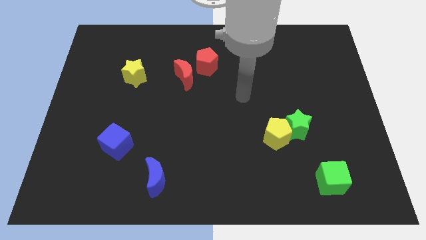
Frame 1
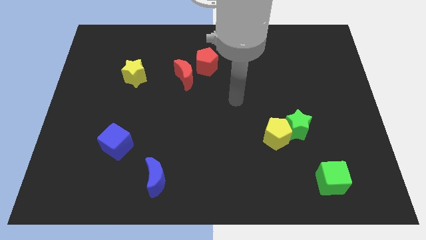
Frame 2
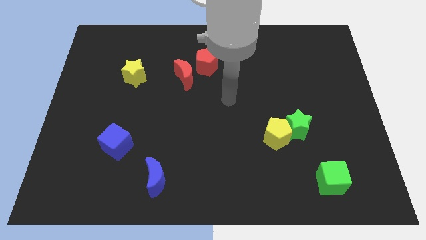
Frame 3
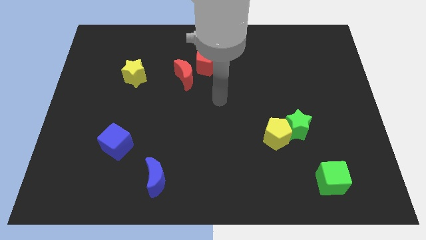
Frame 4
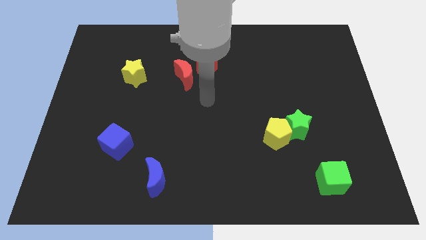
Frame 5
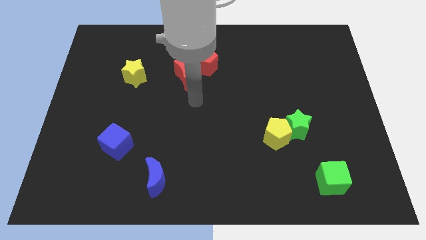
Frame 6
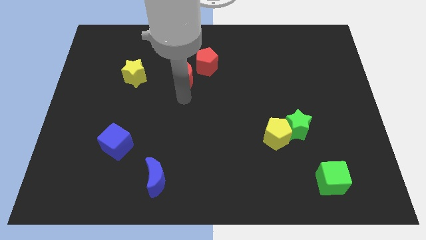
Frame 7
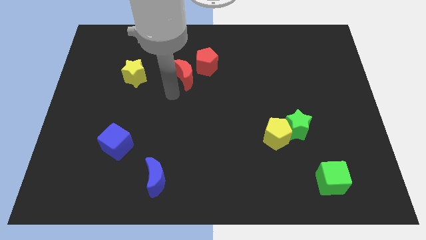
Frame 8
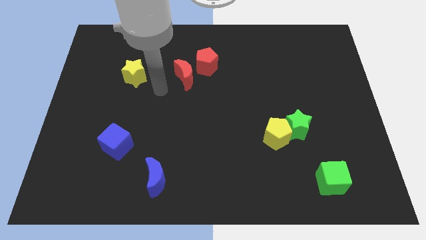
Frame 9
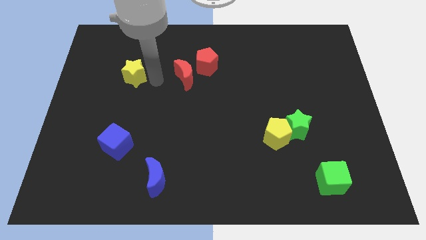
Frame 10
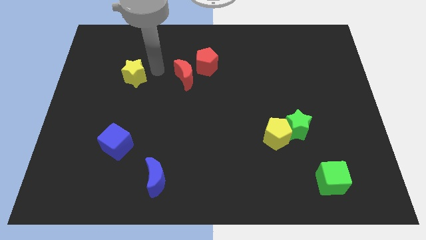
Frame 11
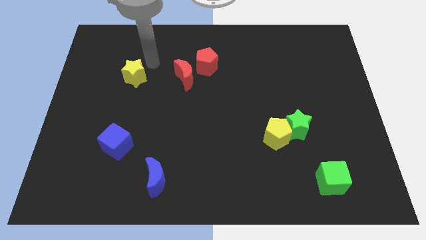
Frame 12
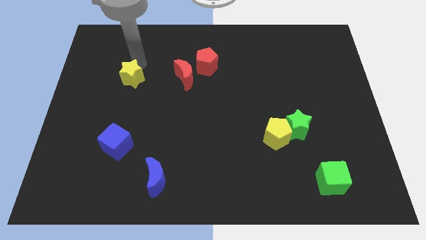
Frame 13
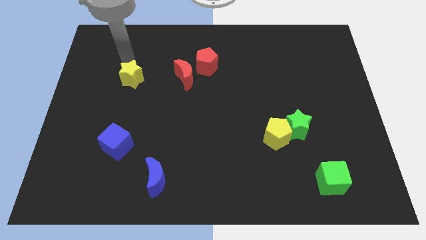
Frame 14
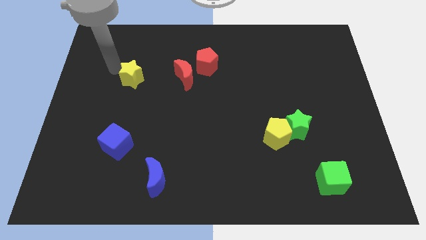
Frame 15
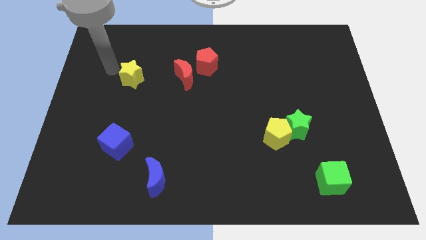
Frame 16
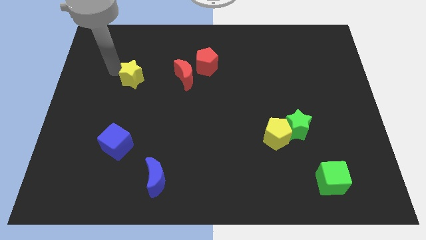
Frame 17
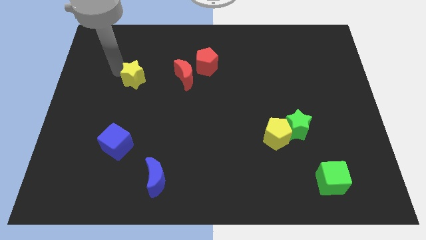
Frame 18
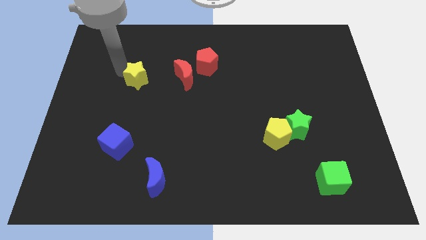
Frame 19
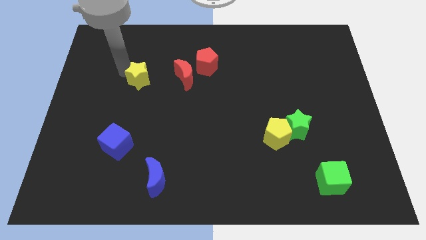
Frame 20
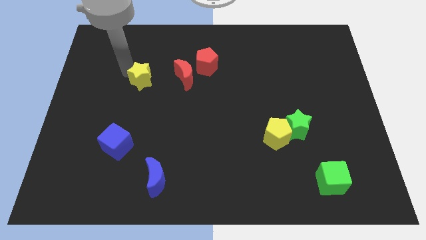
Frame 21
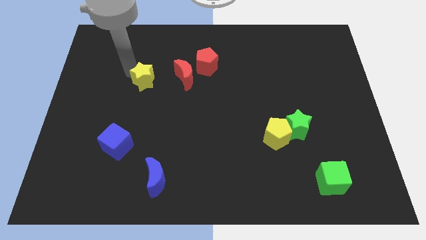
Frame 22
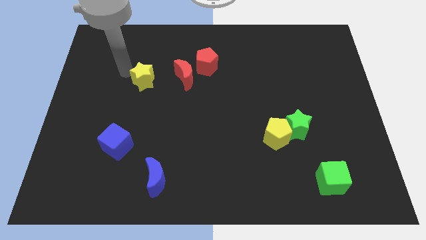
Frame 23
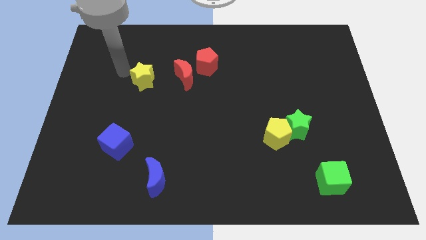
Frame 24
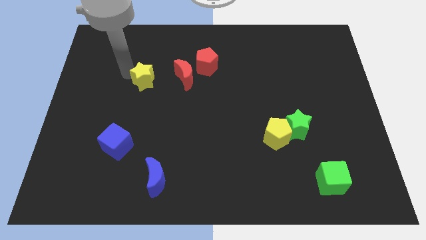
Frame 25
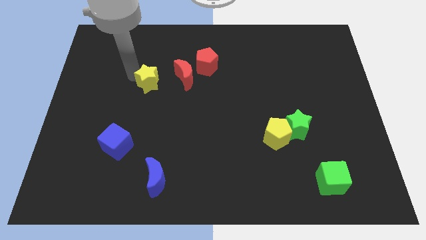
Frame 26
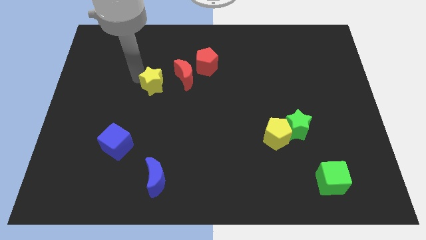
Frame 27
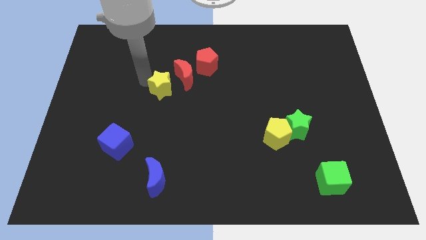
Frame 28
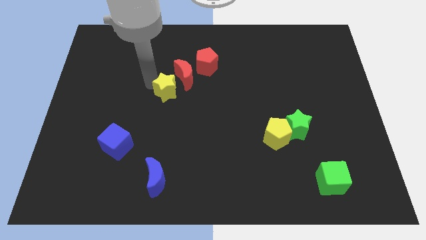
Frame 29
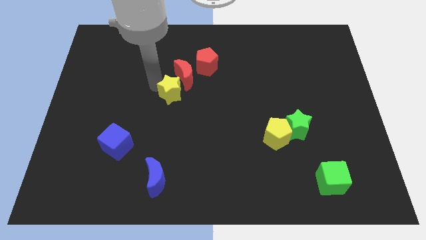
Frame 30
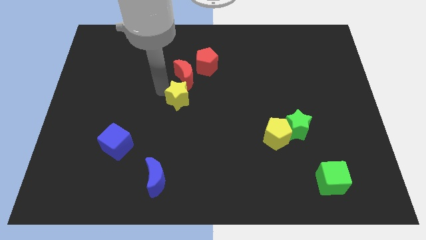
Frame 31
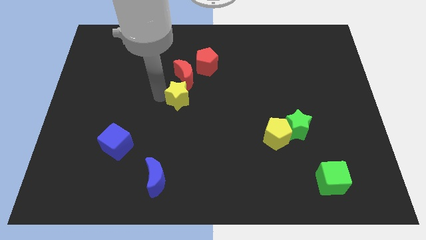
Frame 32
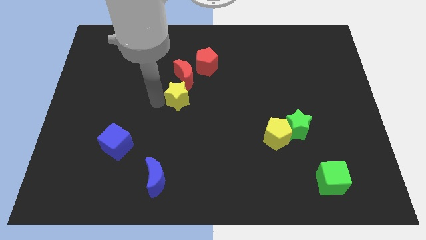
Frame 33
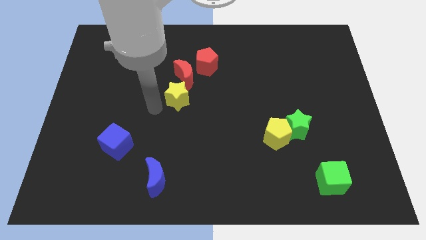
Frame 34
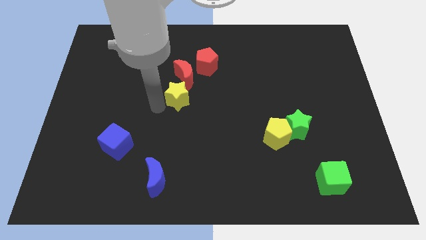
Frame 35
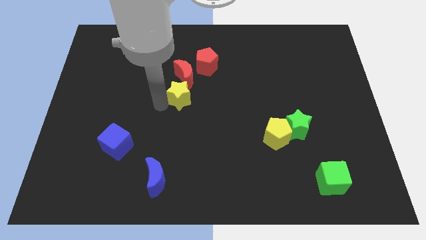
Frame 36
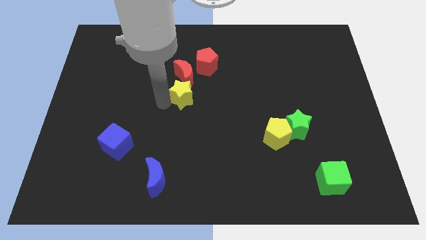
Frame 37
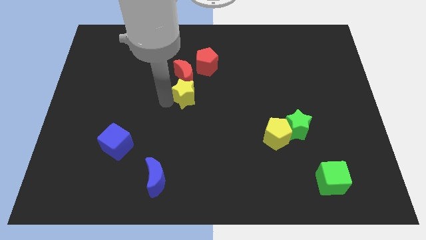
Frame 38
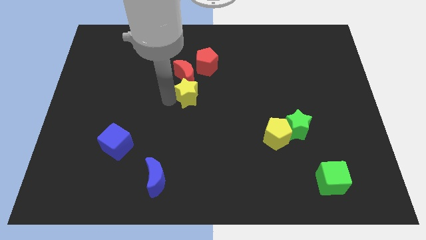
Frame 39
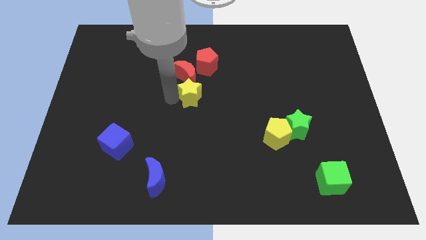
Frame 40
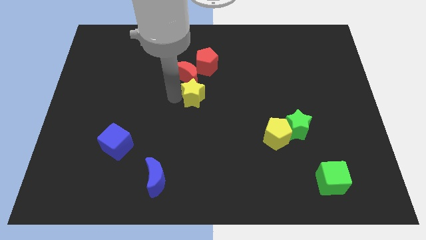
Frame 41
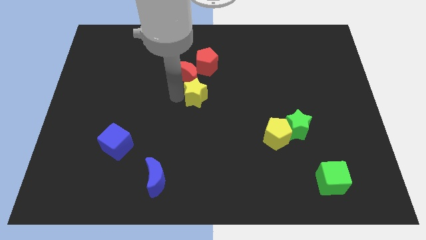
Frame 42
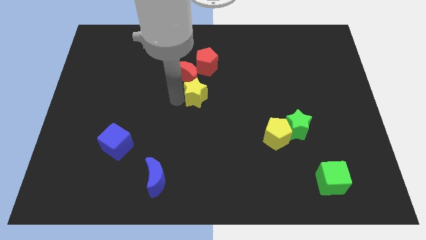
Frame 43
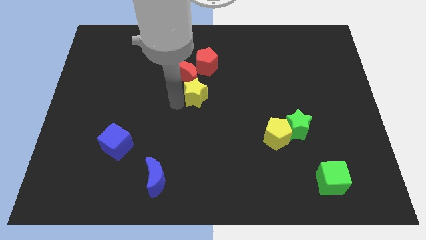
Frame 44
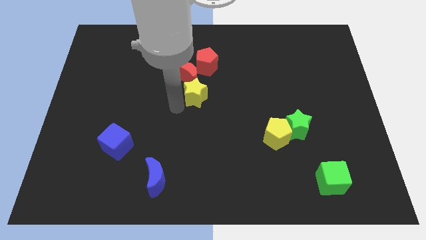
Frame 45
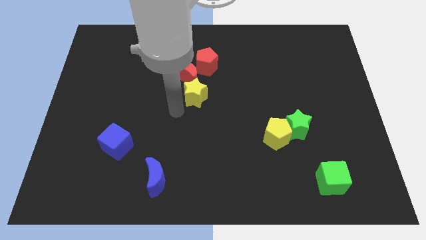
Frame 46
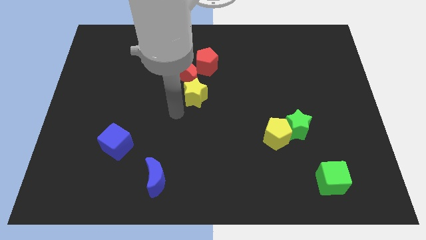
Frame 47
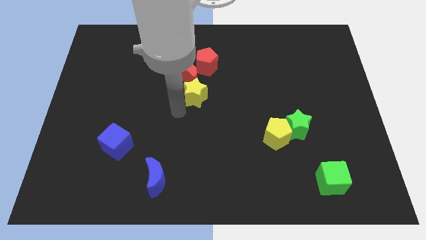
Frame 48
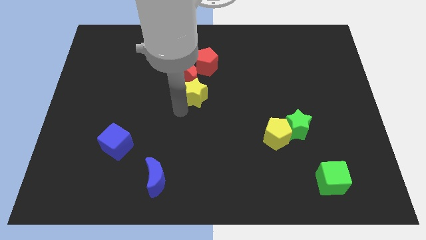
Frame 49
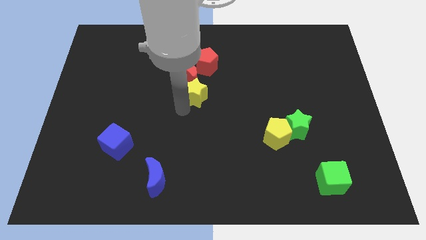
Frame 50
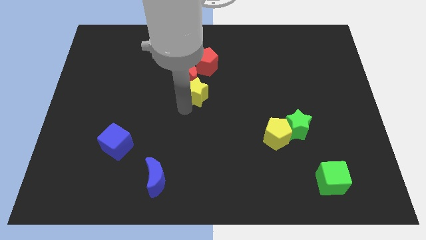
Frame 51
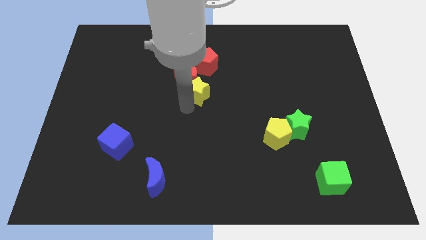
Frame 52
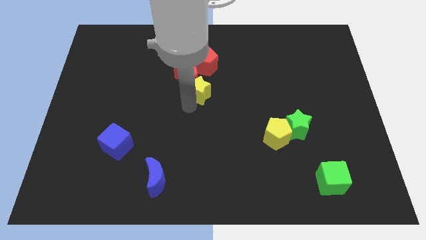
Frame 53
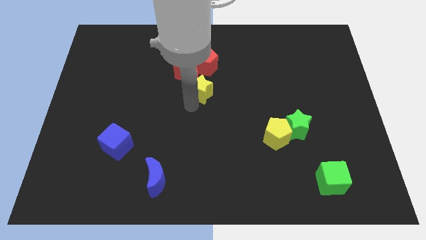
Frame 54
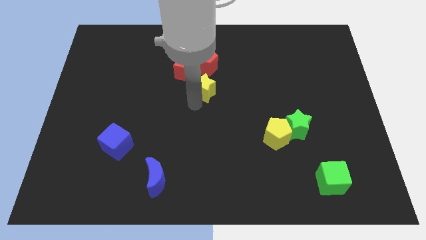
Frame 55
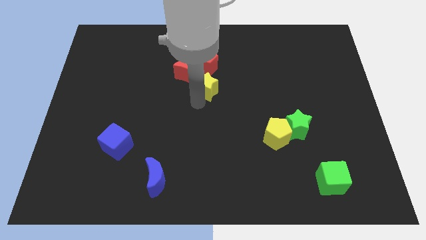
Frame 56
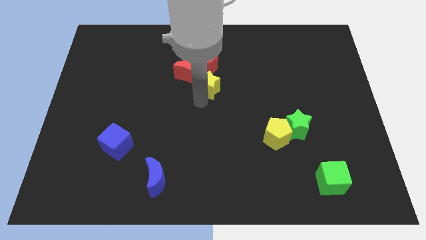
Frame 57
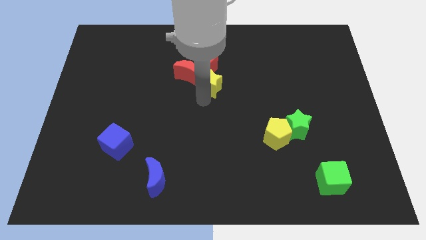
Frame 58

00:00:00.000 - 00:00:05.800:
slide the yellow star to the bottom right side of the red pentagon

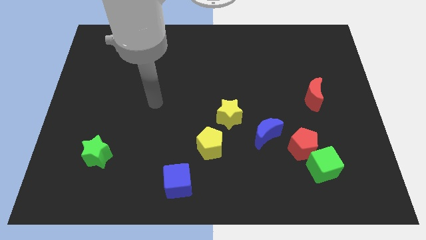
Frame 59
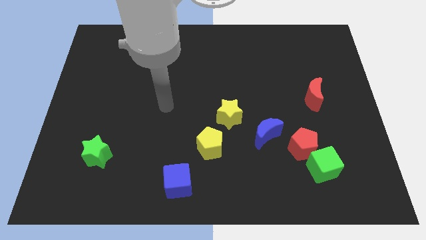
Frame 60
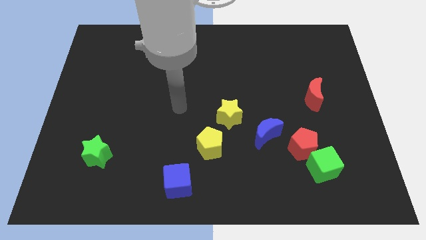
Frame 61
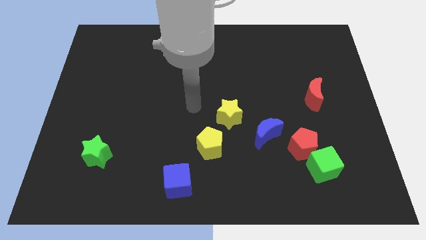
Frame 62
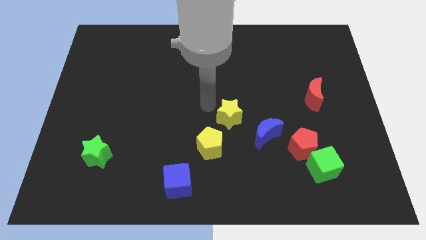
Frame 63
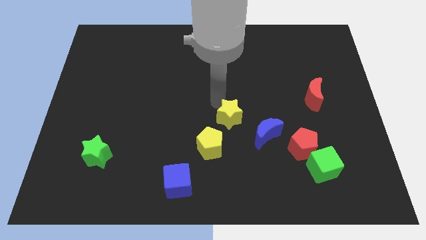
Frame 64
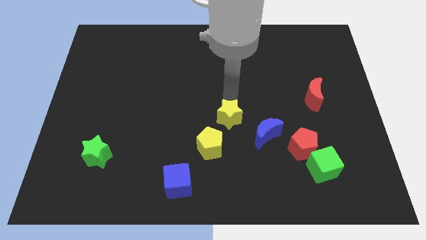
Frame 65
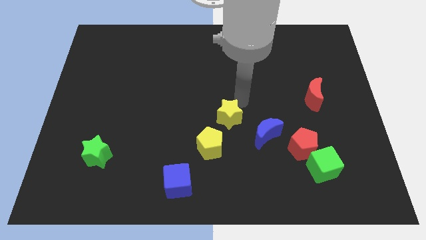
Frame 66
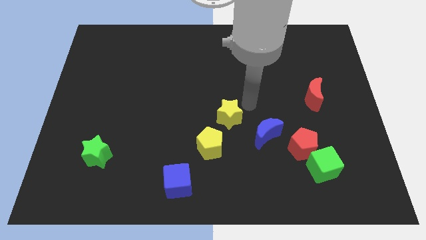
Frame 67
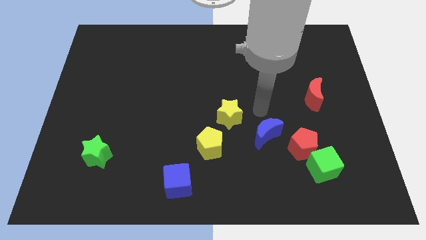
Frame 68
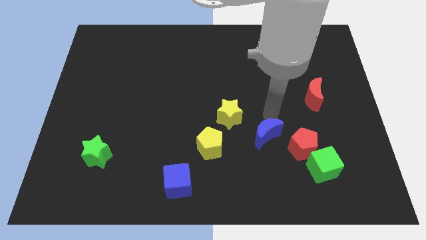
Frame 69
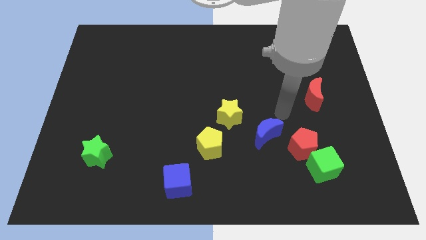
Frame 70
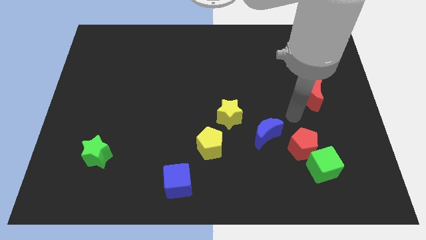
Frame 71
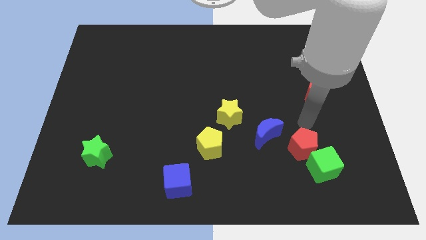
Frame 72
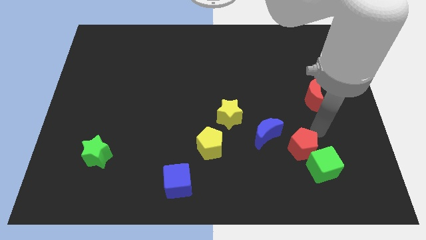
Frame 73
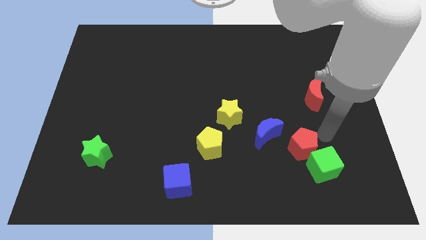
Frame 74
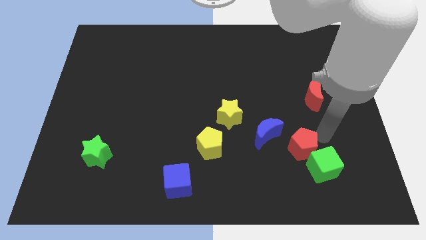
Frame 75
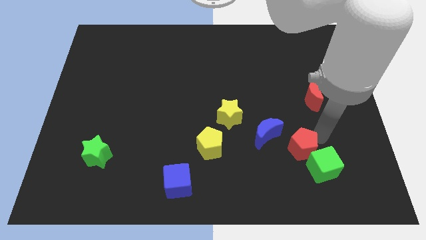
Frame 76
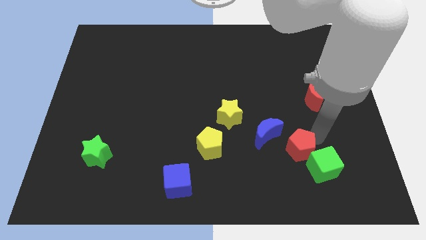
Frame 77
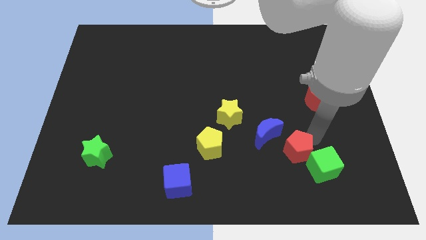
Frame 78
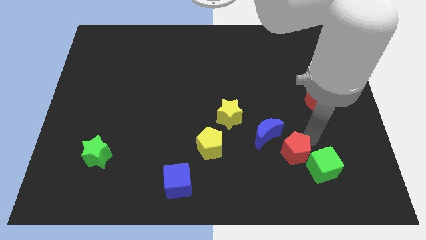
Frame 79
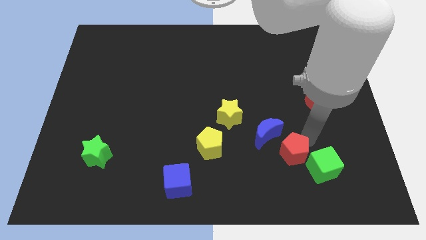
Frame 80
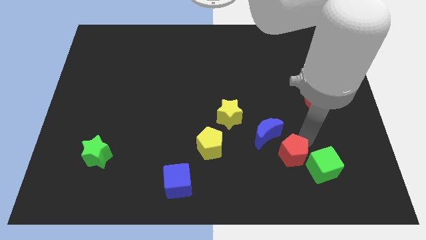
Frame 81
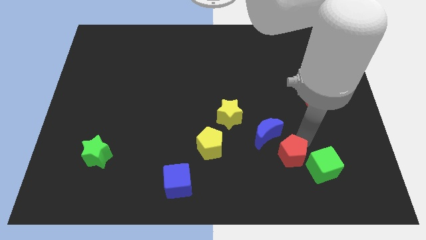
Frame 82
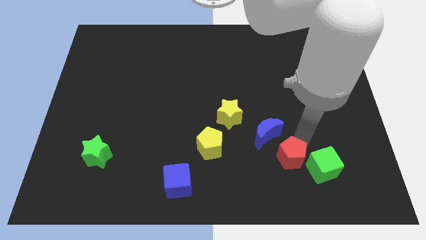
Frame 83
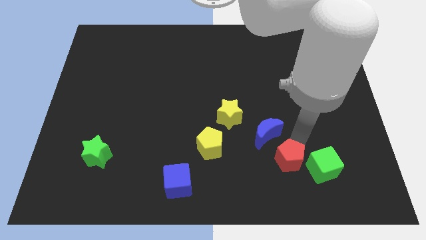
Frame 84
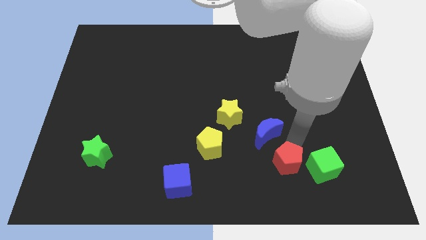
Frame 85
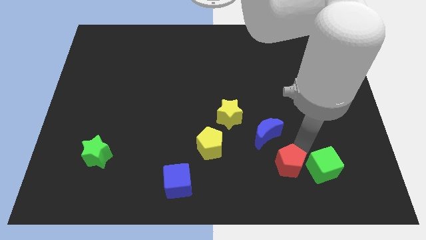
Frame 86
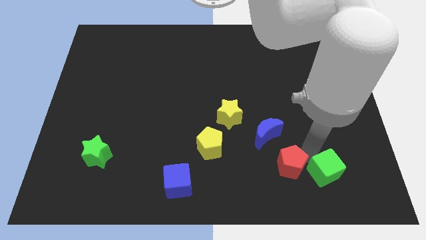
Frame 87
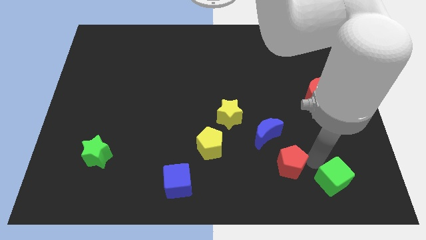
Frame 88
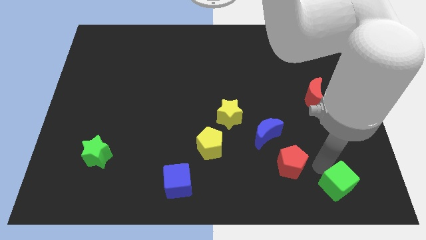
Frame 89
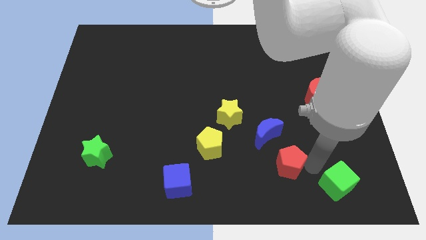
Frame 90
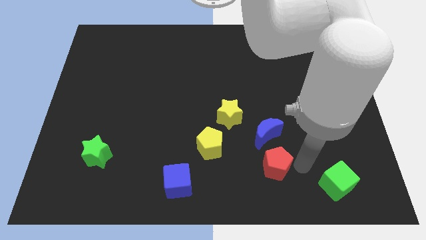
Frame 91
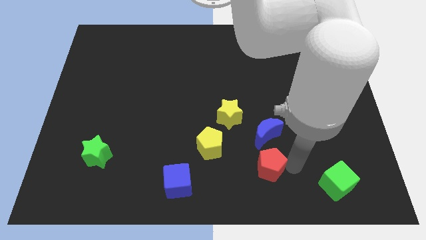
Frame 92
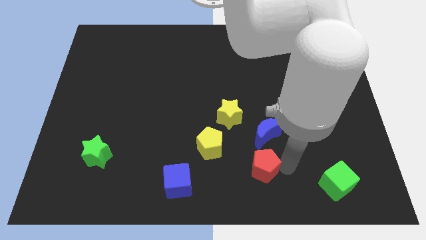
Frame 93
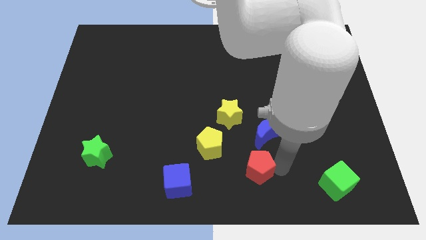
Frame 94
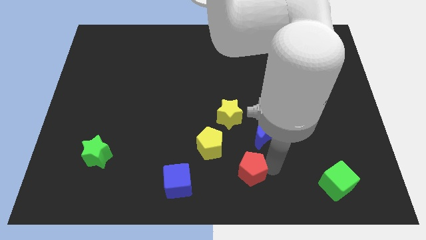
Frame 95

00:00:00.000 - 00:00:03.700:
put the red pentagon right of the blue cube
